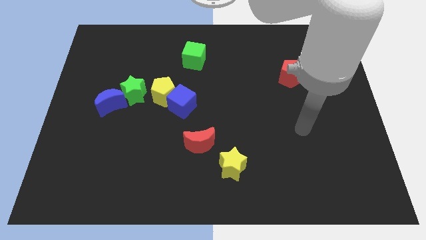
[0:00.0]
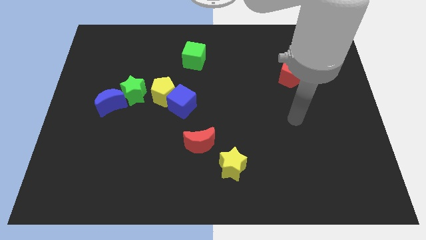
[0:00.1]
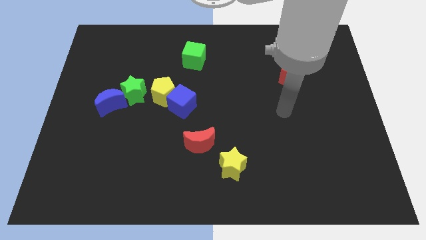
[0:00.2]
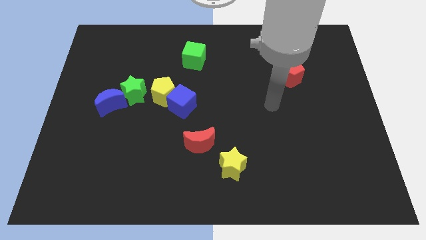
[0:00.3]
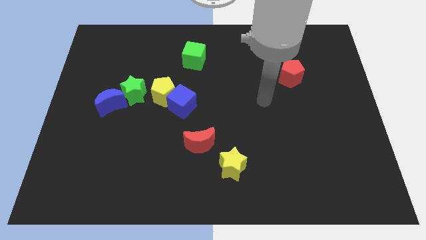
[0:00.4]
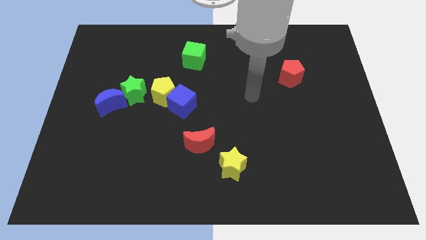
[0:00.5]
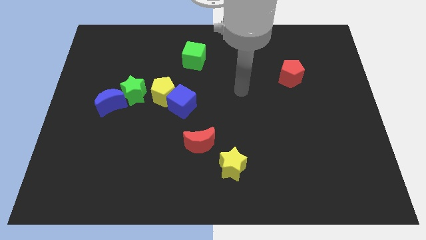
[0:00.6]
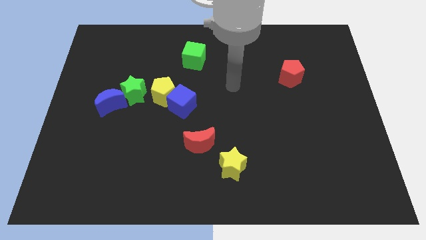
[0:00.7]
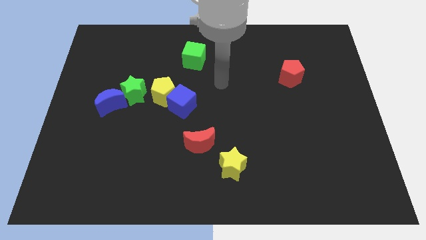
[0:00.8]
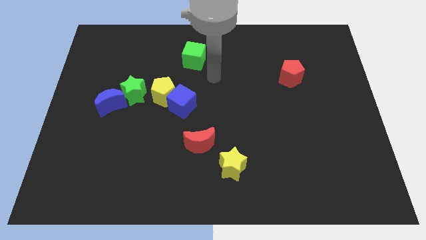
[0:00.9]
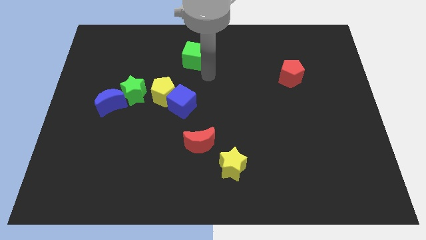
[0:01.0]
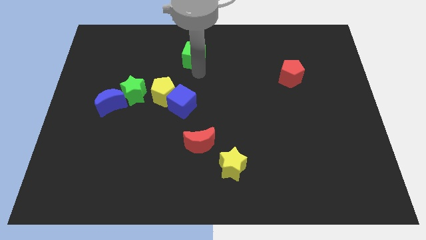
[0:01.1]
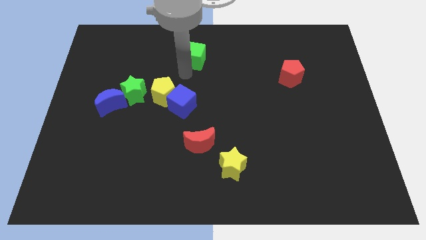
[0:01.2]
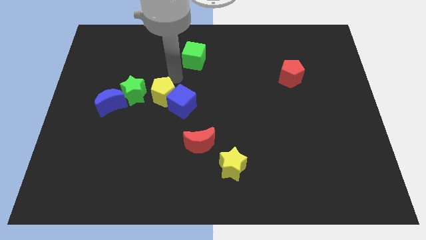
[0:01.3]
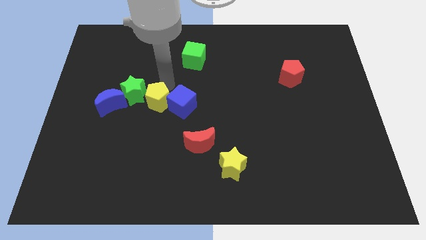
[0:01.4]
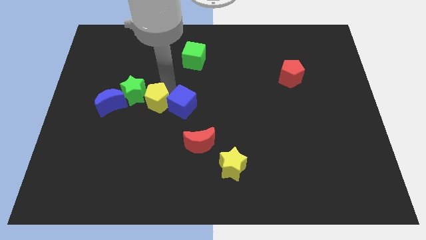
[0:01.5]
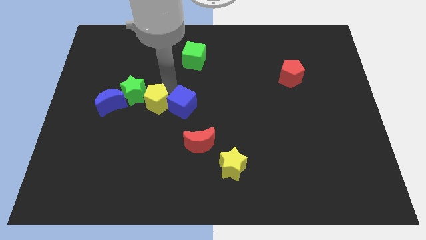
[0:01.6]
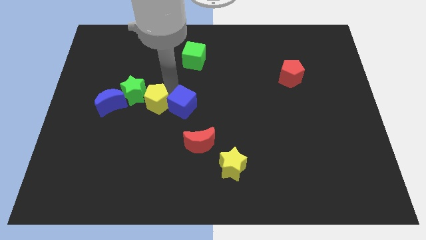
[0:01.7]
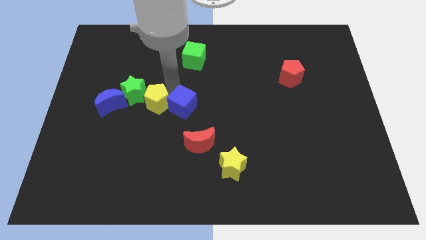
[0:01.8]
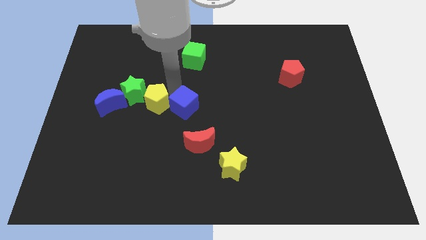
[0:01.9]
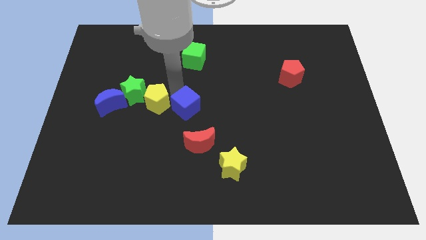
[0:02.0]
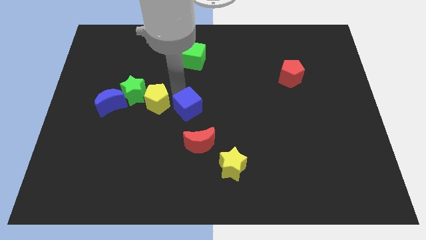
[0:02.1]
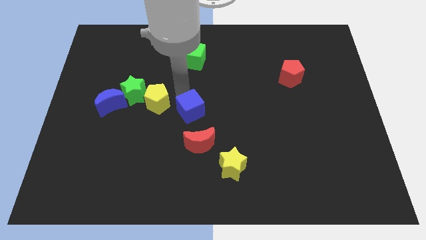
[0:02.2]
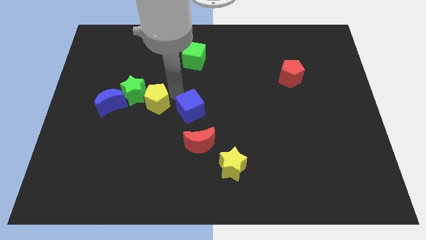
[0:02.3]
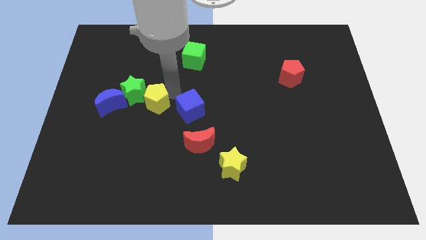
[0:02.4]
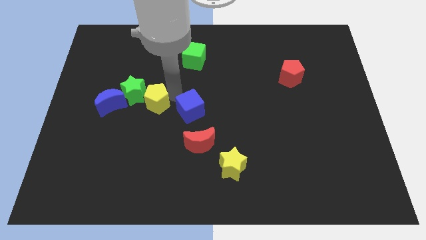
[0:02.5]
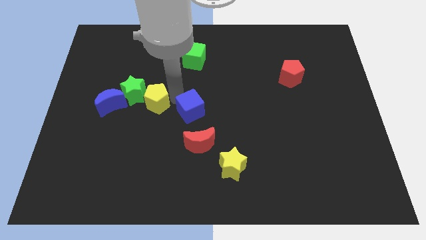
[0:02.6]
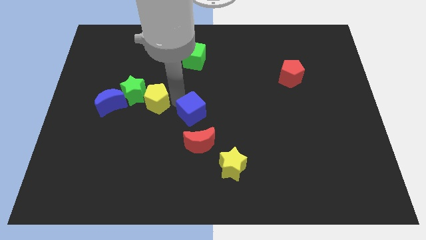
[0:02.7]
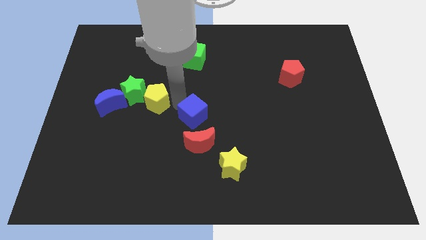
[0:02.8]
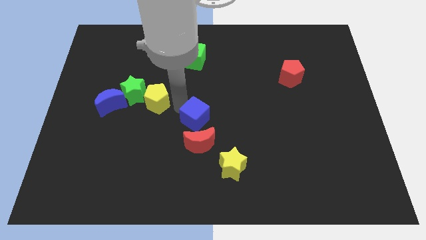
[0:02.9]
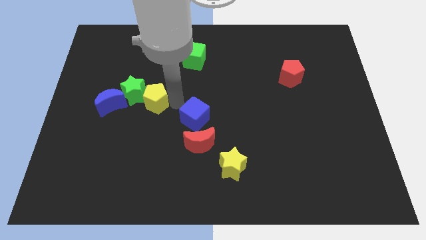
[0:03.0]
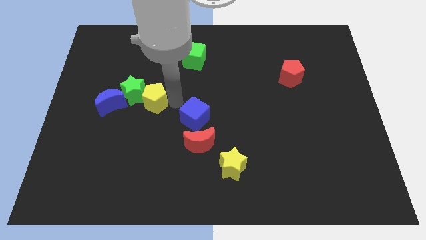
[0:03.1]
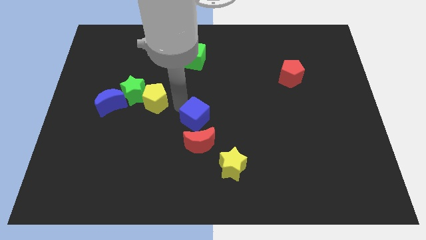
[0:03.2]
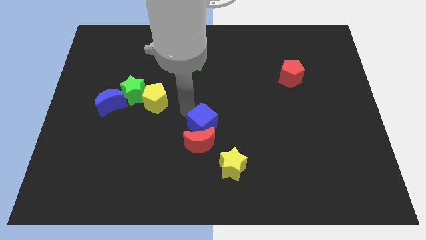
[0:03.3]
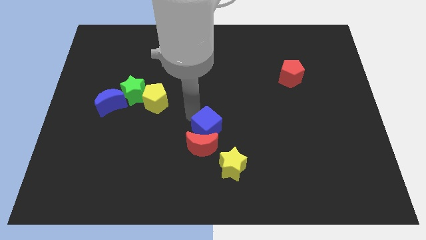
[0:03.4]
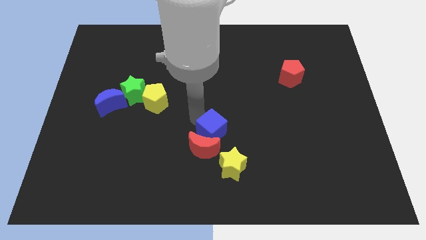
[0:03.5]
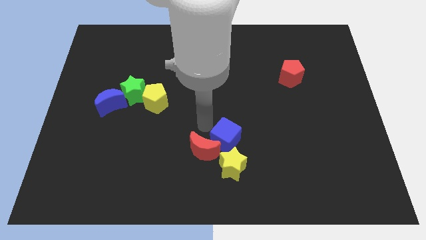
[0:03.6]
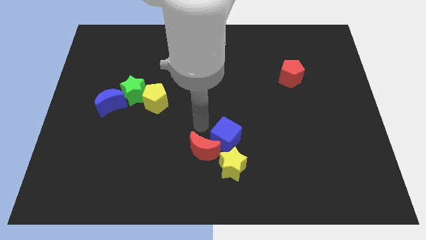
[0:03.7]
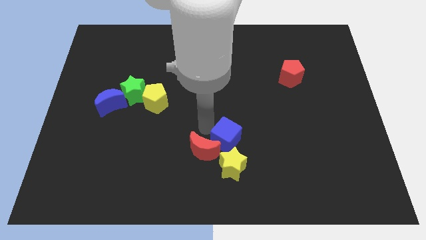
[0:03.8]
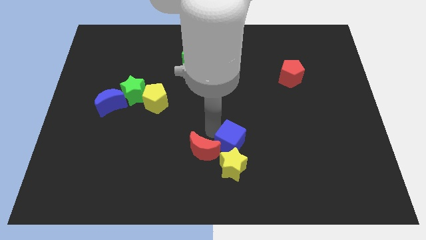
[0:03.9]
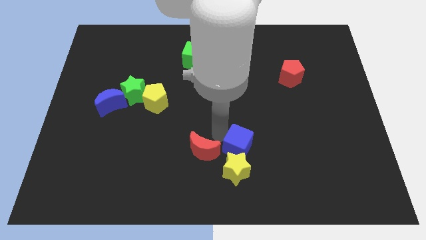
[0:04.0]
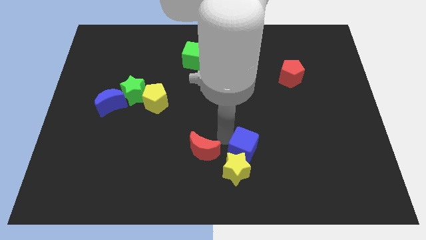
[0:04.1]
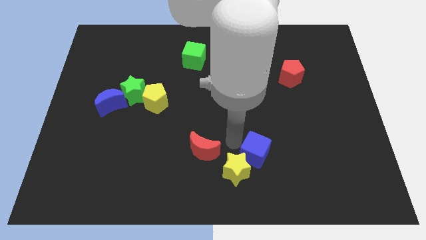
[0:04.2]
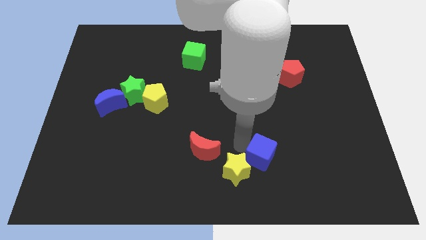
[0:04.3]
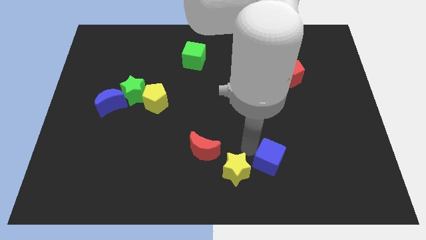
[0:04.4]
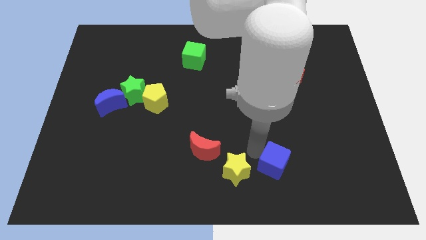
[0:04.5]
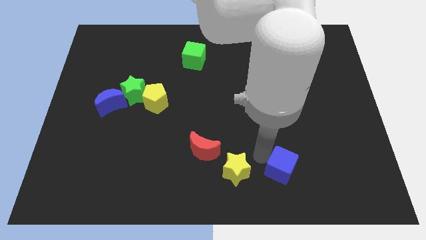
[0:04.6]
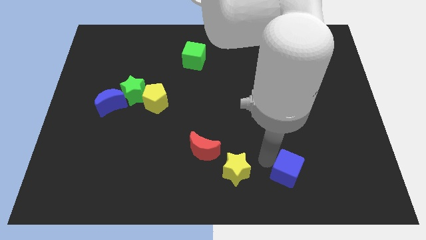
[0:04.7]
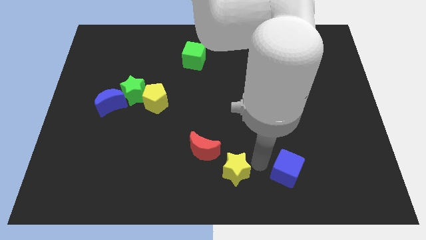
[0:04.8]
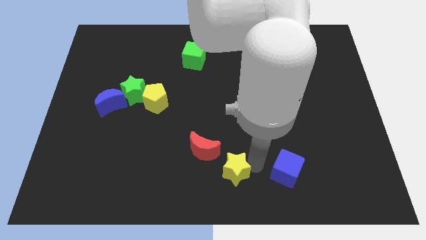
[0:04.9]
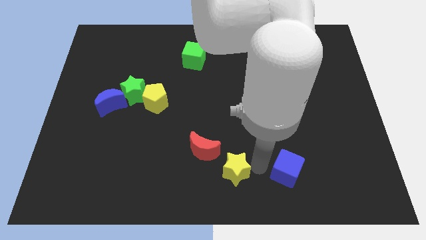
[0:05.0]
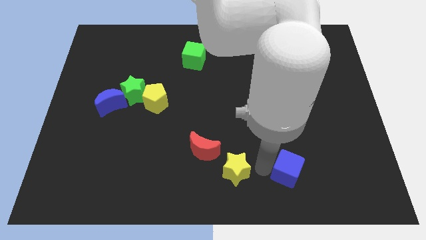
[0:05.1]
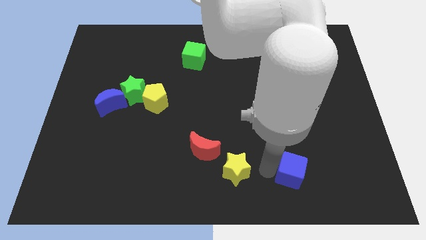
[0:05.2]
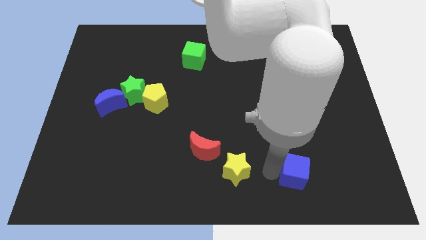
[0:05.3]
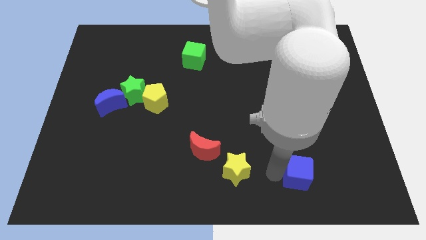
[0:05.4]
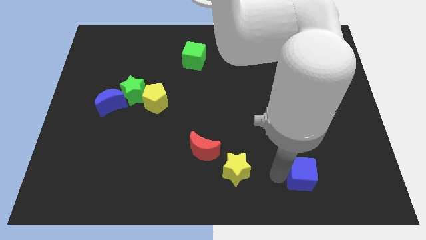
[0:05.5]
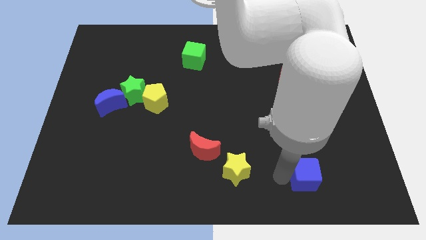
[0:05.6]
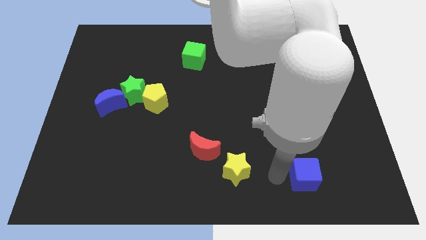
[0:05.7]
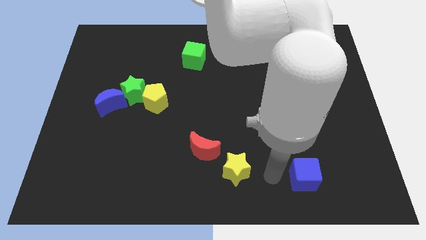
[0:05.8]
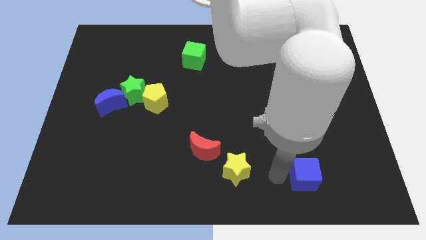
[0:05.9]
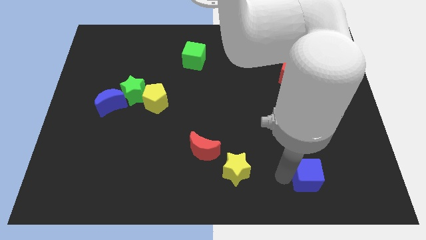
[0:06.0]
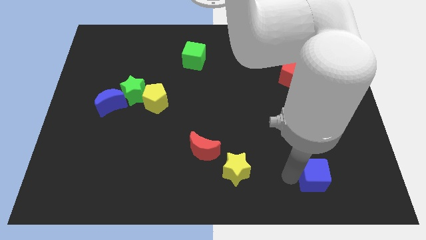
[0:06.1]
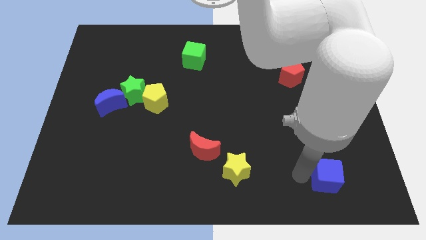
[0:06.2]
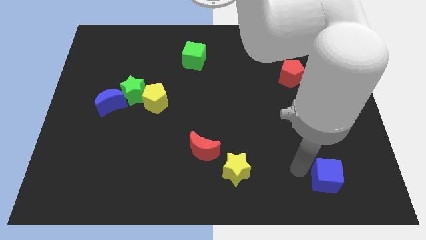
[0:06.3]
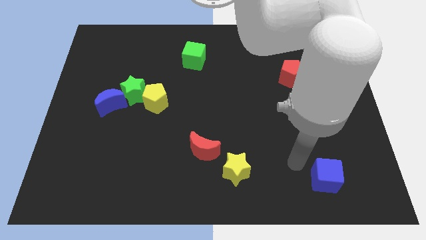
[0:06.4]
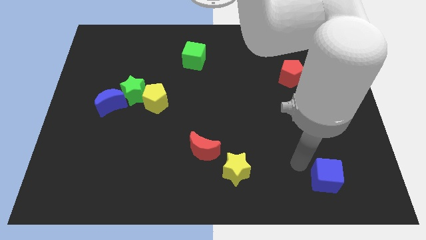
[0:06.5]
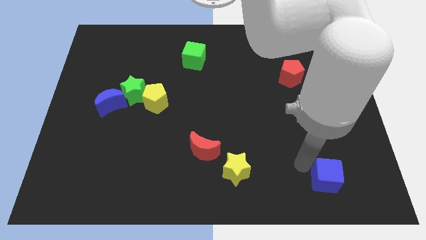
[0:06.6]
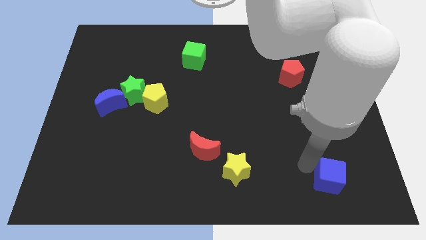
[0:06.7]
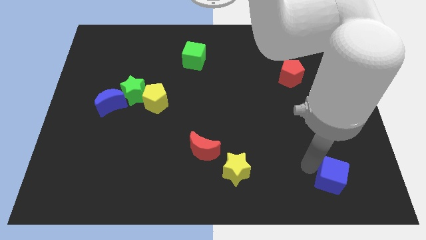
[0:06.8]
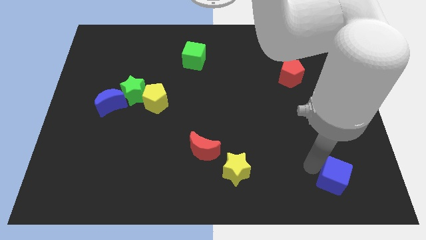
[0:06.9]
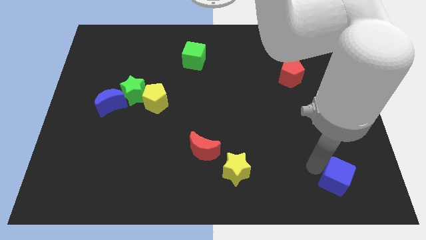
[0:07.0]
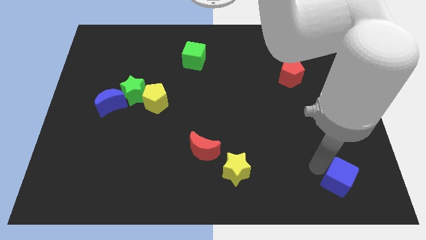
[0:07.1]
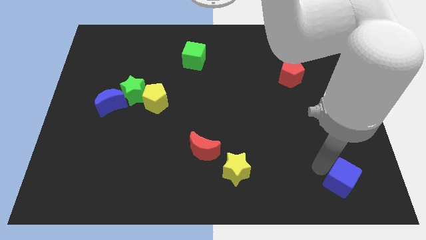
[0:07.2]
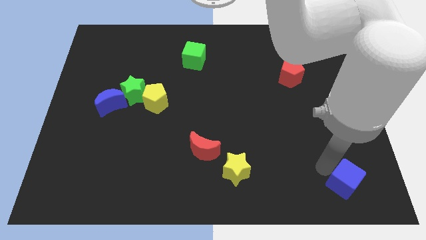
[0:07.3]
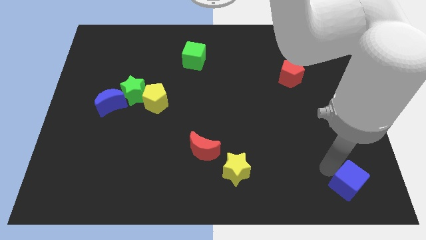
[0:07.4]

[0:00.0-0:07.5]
move the blue cube to the bottom right of the board
